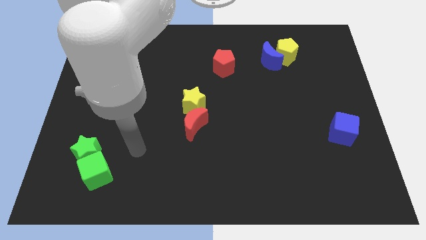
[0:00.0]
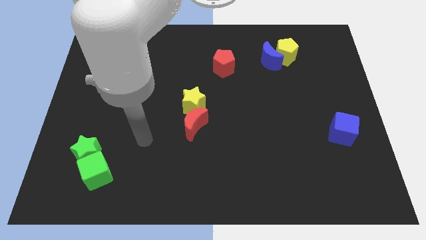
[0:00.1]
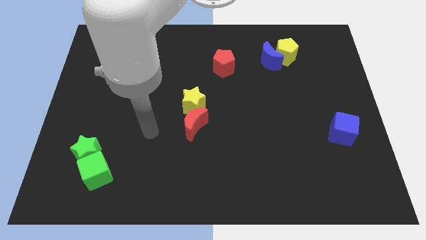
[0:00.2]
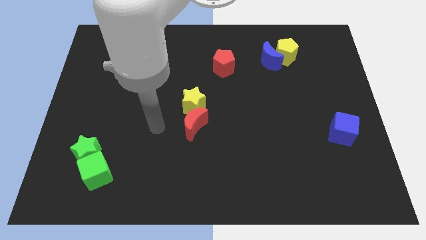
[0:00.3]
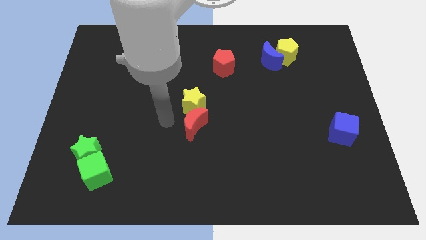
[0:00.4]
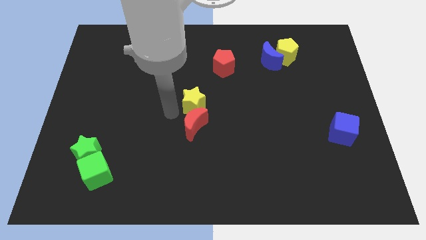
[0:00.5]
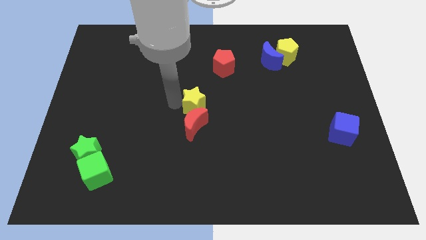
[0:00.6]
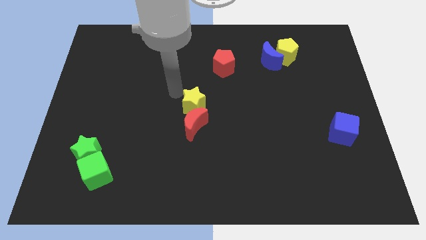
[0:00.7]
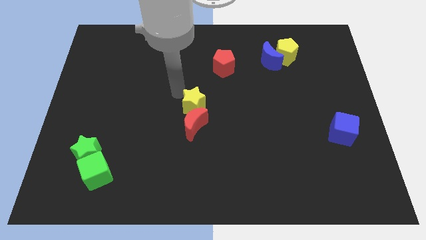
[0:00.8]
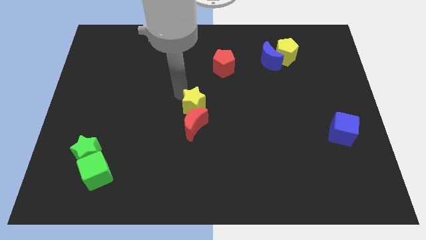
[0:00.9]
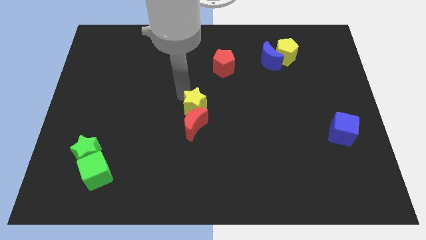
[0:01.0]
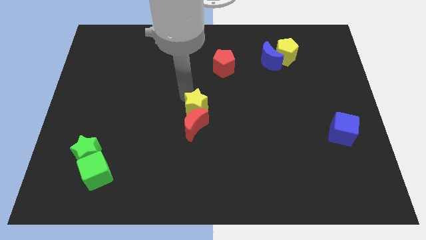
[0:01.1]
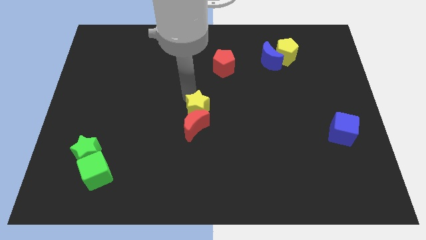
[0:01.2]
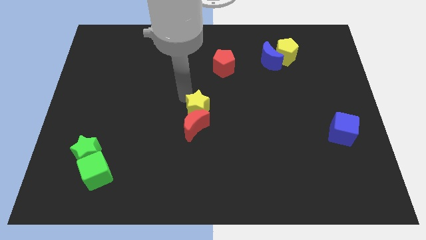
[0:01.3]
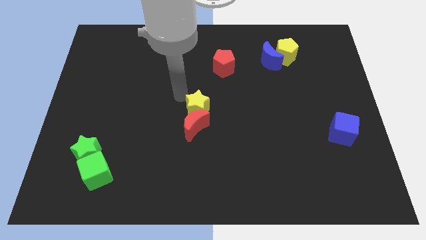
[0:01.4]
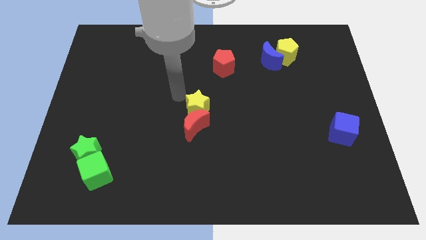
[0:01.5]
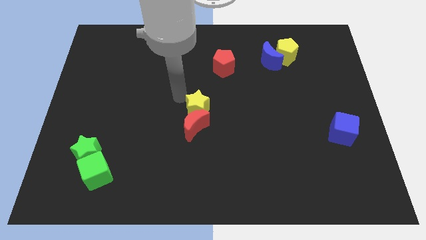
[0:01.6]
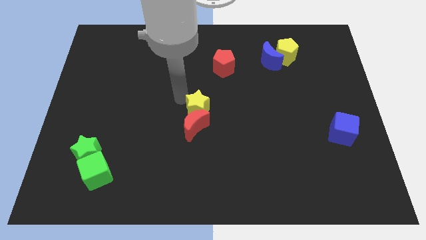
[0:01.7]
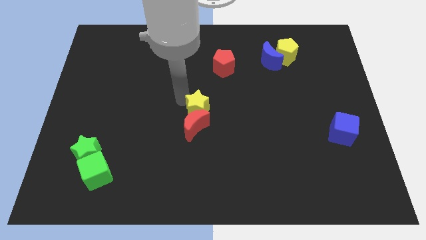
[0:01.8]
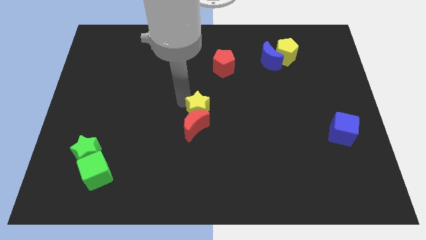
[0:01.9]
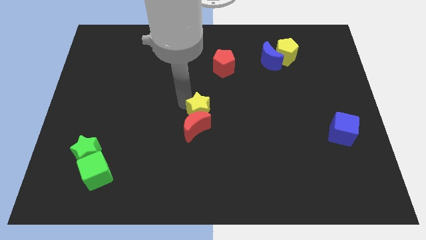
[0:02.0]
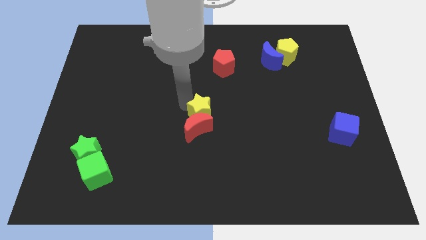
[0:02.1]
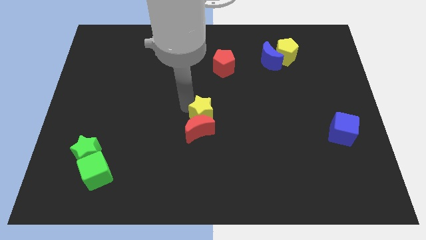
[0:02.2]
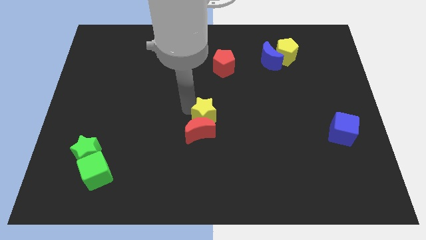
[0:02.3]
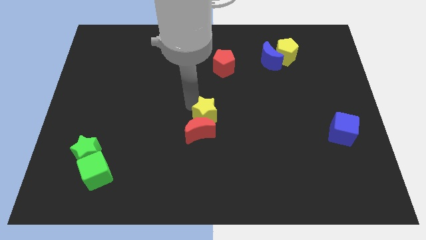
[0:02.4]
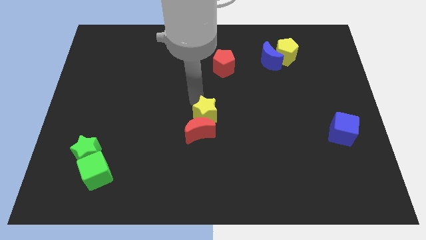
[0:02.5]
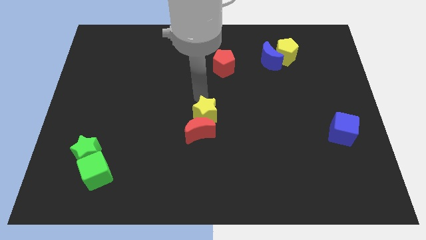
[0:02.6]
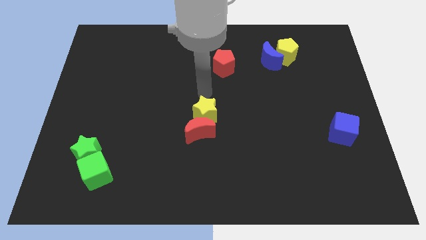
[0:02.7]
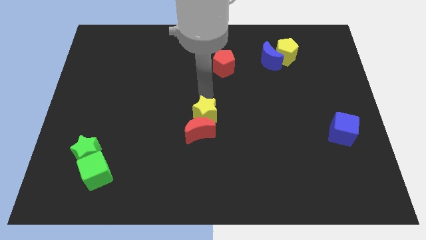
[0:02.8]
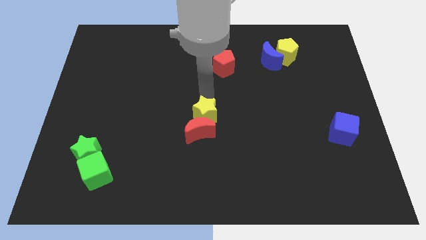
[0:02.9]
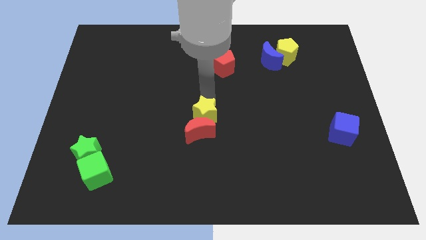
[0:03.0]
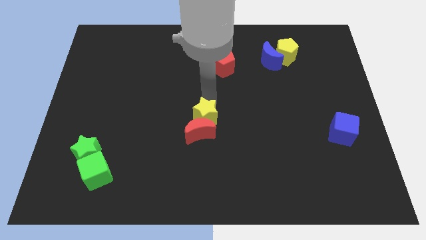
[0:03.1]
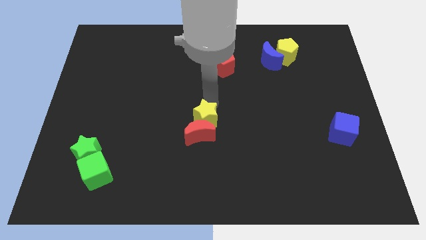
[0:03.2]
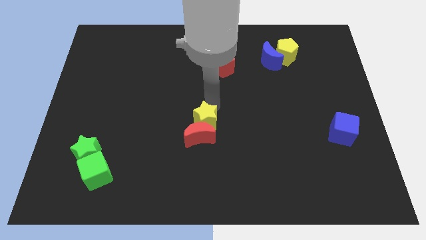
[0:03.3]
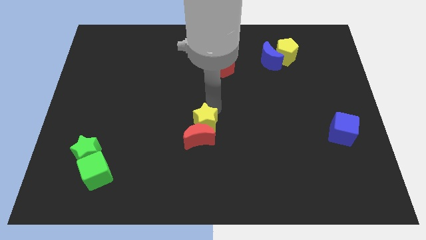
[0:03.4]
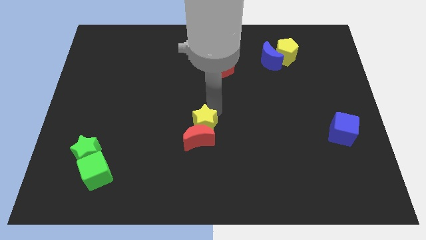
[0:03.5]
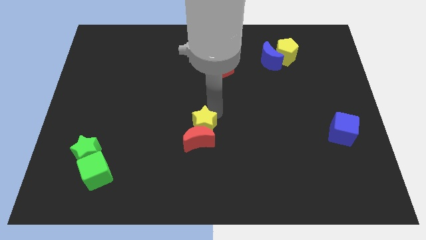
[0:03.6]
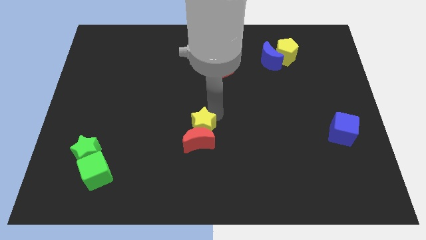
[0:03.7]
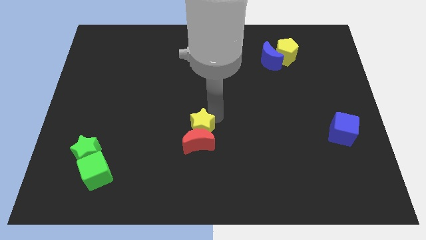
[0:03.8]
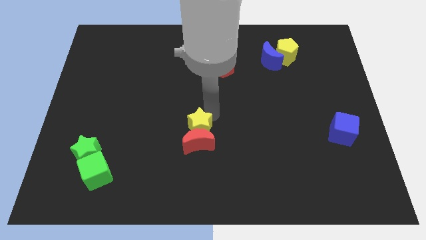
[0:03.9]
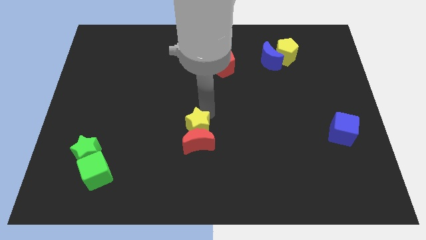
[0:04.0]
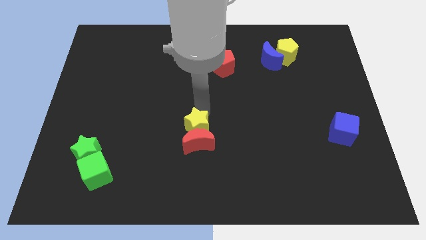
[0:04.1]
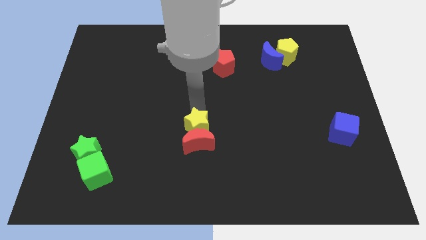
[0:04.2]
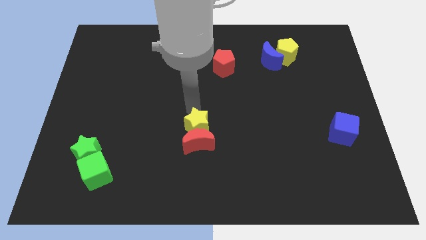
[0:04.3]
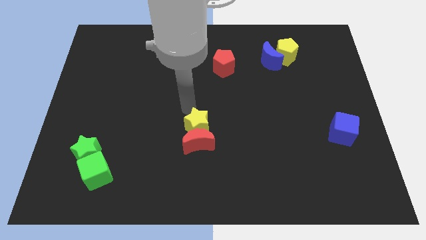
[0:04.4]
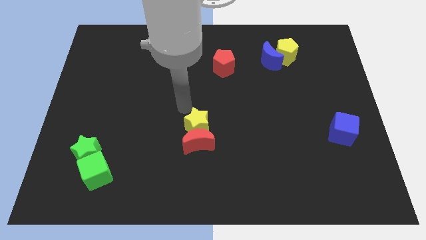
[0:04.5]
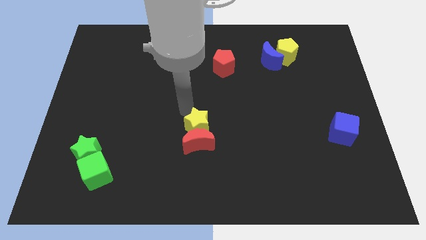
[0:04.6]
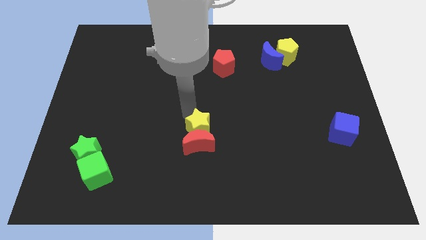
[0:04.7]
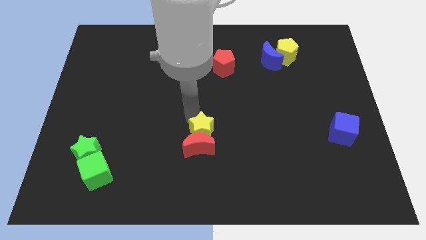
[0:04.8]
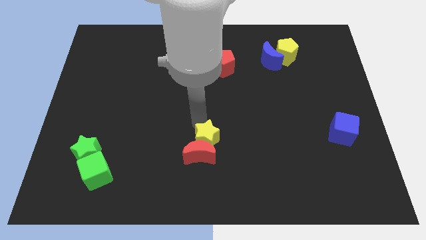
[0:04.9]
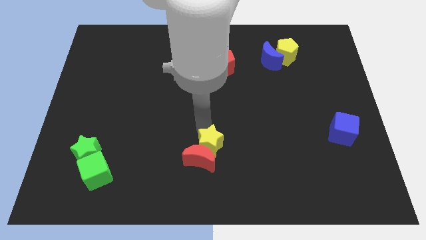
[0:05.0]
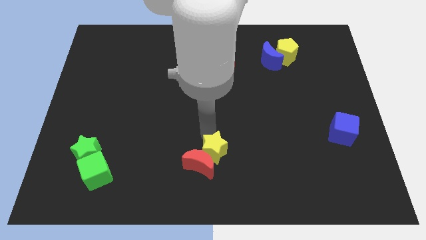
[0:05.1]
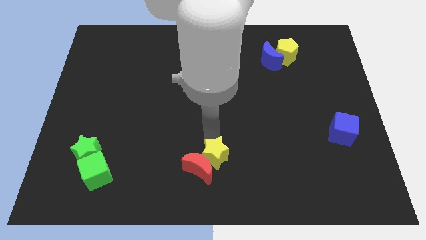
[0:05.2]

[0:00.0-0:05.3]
put the yellow star to the bottom

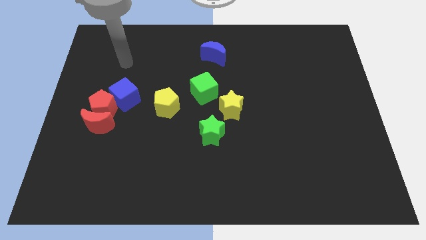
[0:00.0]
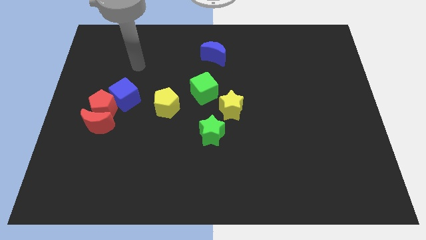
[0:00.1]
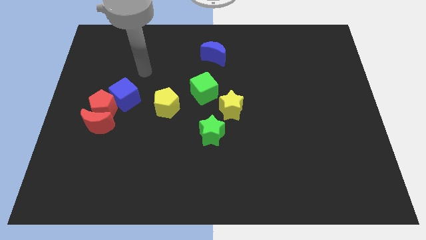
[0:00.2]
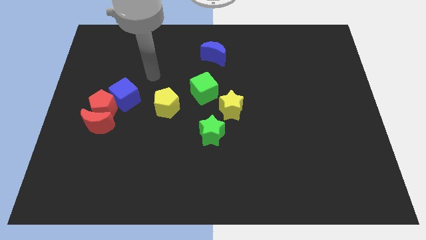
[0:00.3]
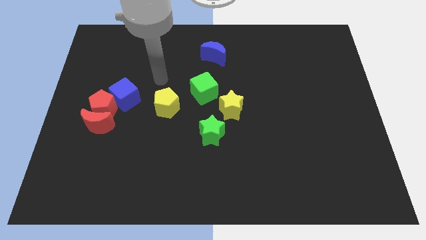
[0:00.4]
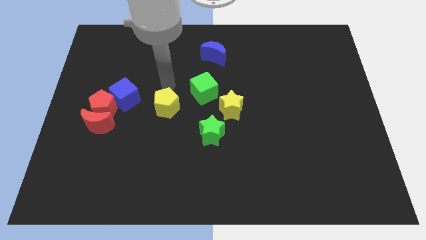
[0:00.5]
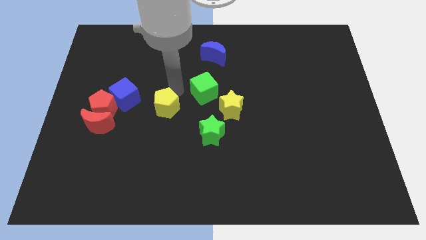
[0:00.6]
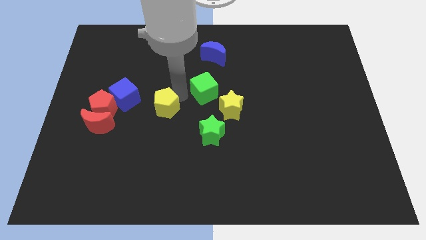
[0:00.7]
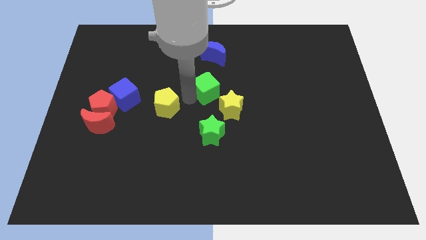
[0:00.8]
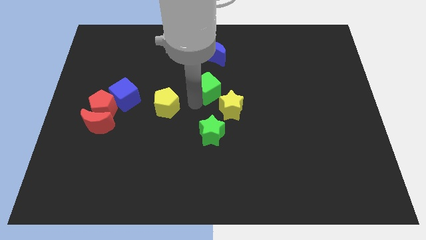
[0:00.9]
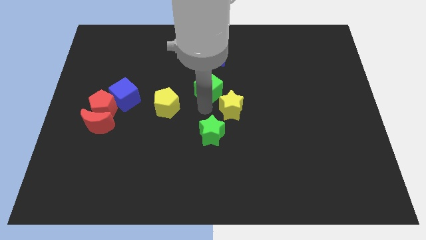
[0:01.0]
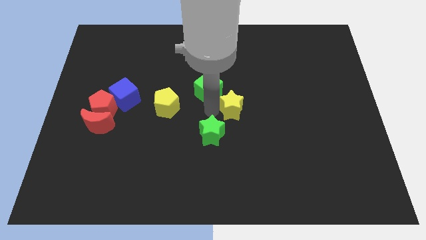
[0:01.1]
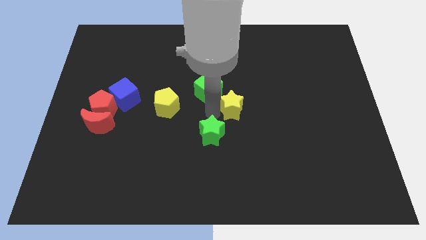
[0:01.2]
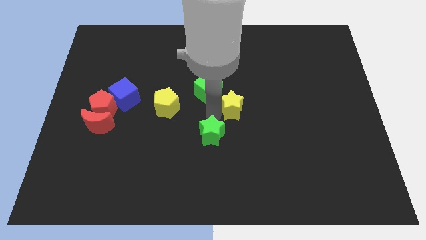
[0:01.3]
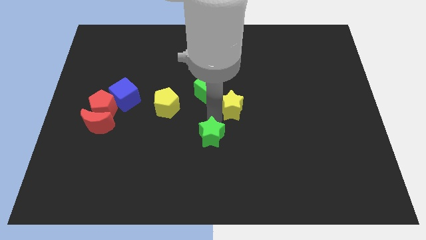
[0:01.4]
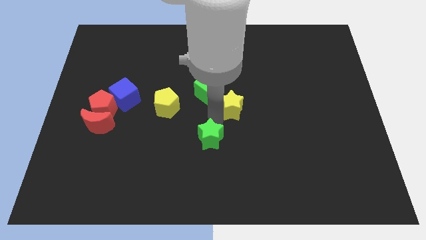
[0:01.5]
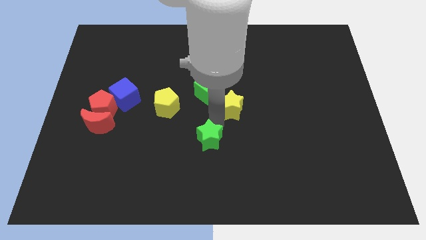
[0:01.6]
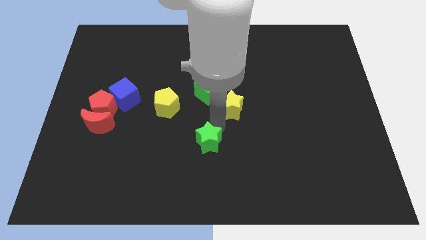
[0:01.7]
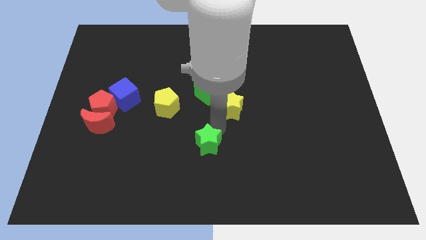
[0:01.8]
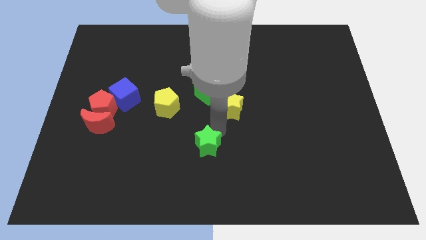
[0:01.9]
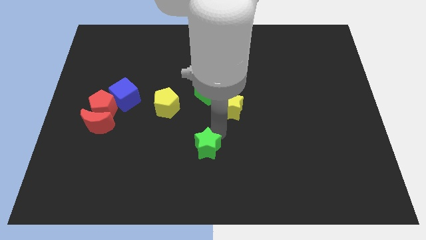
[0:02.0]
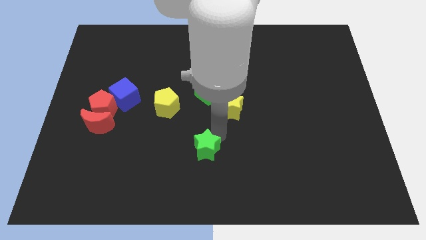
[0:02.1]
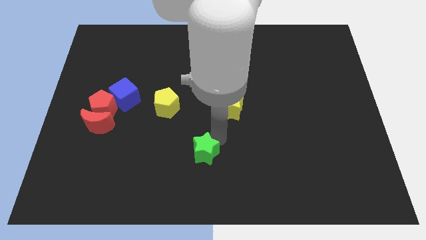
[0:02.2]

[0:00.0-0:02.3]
slide the green star to the bottom
